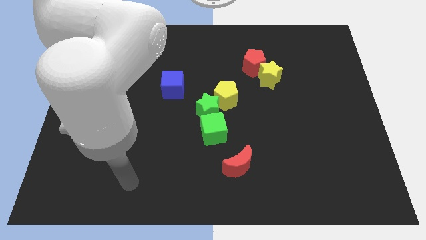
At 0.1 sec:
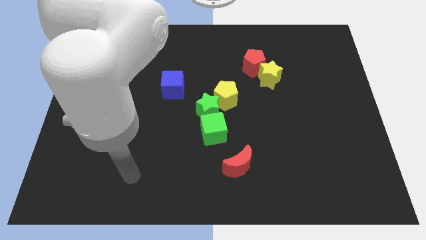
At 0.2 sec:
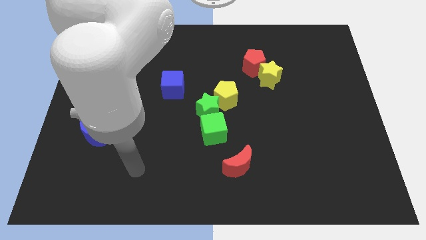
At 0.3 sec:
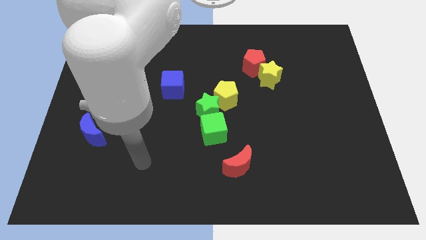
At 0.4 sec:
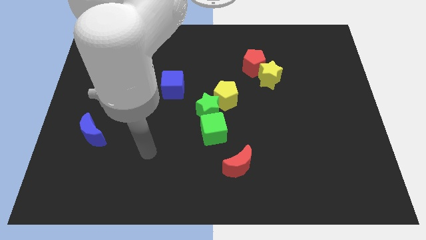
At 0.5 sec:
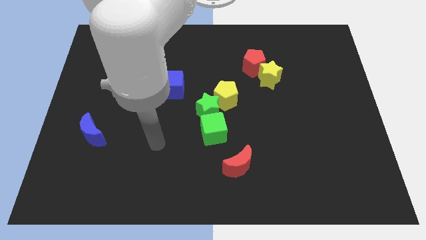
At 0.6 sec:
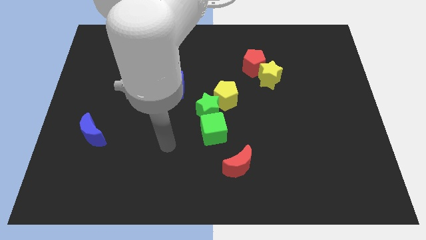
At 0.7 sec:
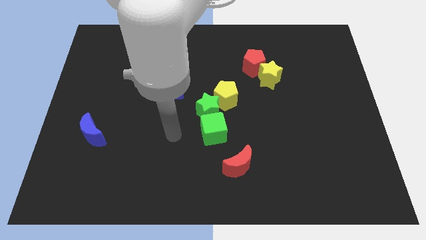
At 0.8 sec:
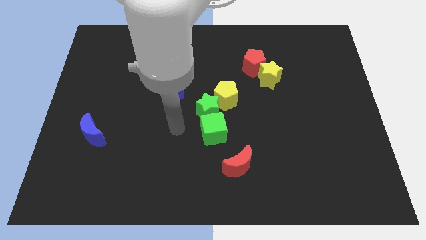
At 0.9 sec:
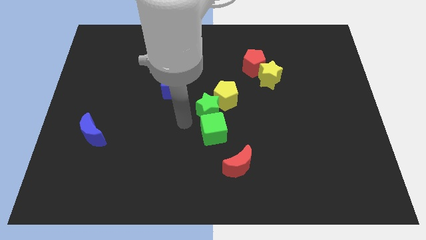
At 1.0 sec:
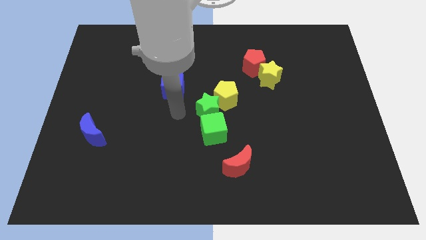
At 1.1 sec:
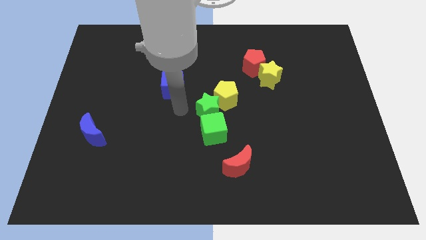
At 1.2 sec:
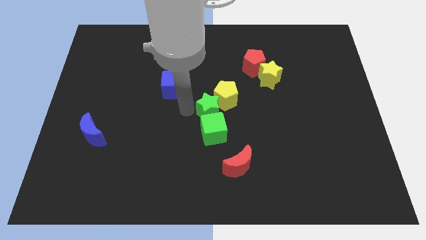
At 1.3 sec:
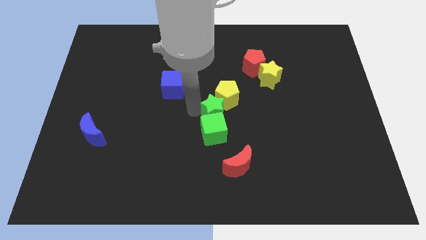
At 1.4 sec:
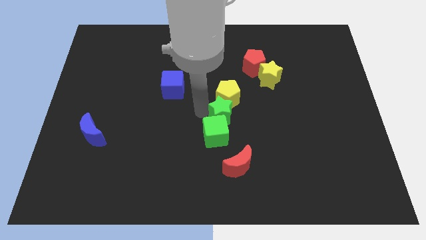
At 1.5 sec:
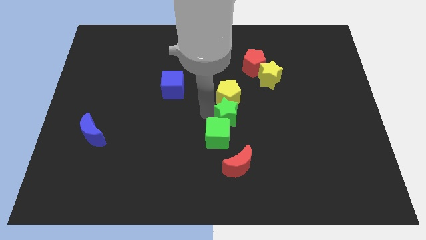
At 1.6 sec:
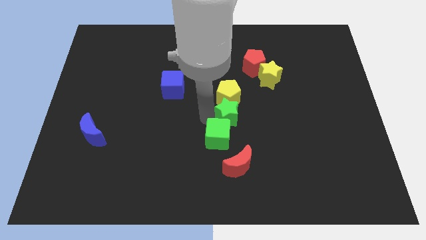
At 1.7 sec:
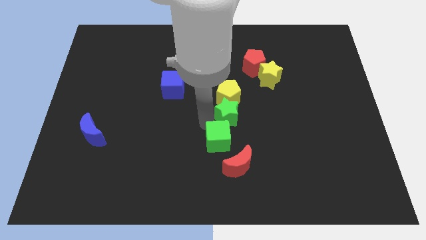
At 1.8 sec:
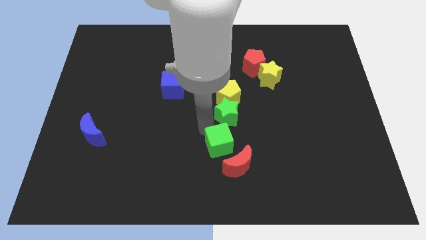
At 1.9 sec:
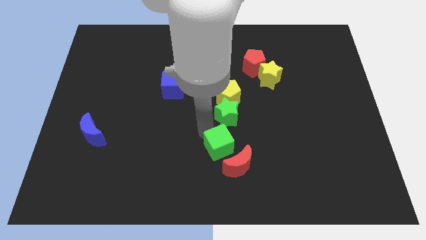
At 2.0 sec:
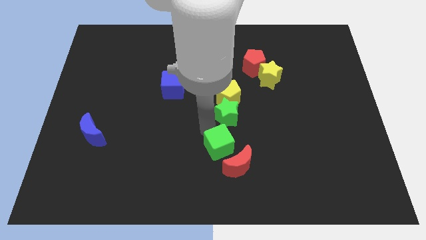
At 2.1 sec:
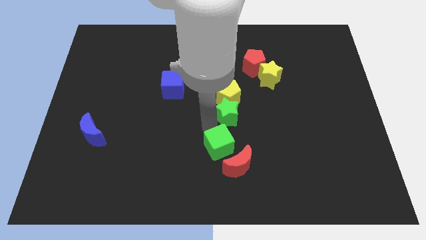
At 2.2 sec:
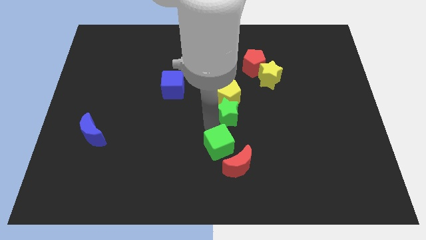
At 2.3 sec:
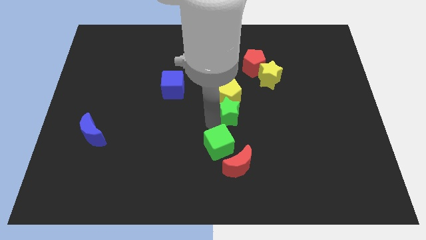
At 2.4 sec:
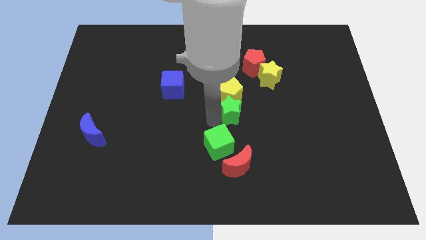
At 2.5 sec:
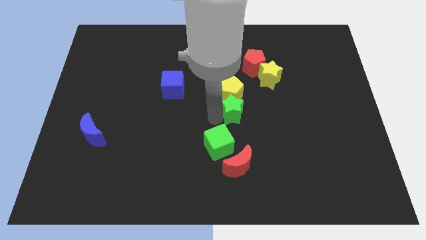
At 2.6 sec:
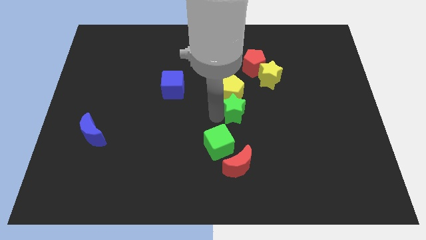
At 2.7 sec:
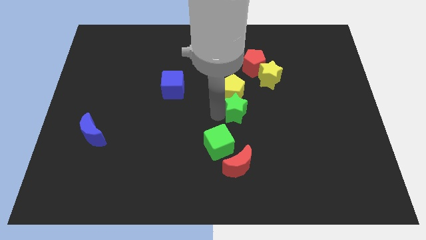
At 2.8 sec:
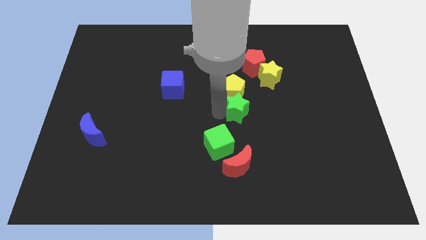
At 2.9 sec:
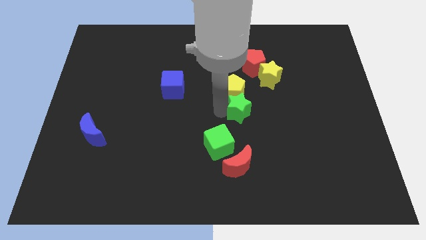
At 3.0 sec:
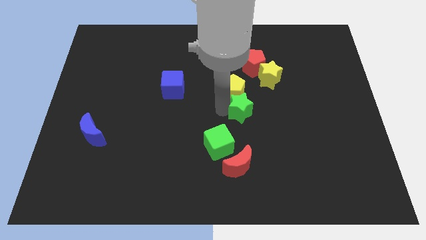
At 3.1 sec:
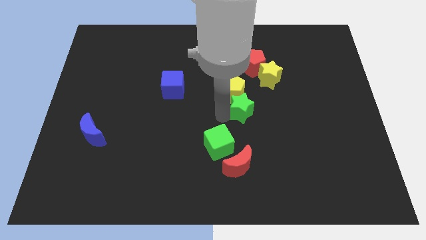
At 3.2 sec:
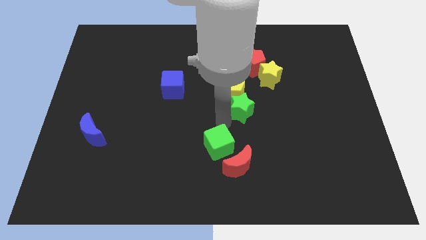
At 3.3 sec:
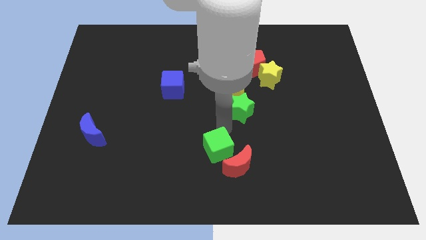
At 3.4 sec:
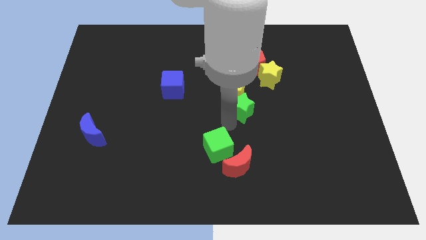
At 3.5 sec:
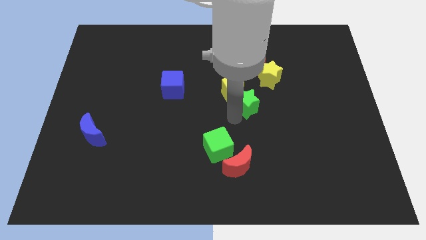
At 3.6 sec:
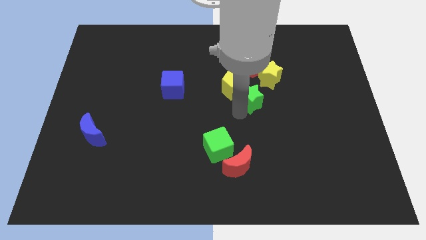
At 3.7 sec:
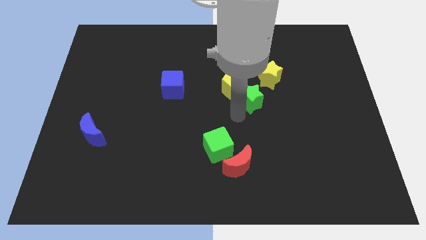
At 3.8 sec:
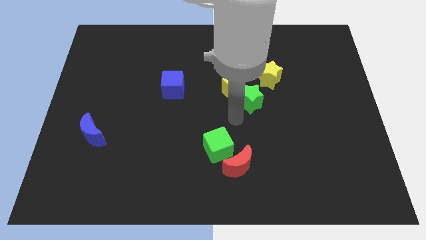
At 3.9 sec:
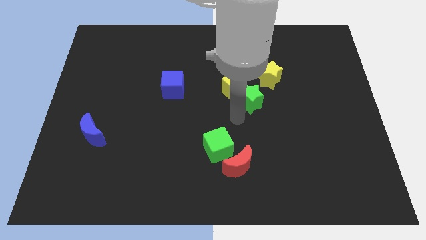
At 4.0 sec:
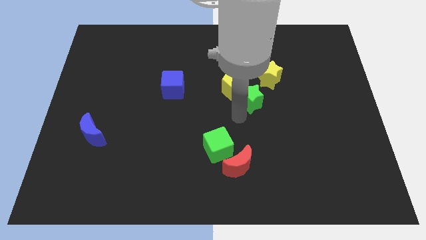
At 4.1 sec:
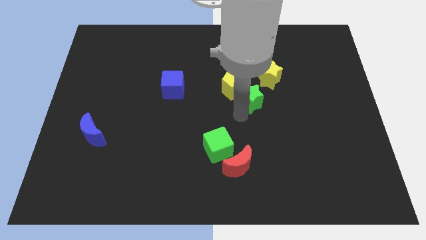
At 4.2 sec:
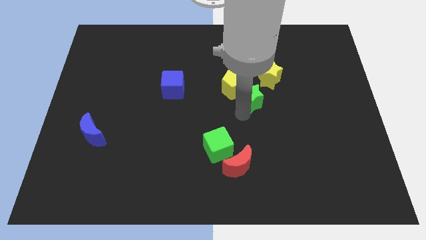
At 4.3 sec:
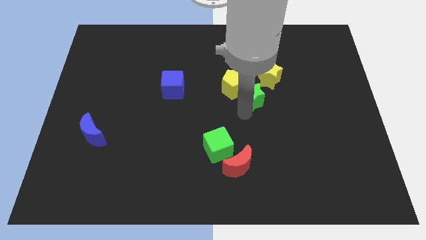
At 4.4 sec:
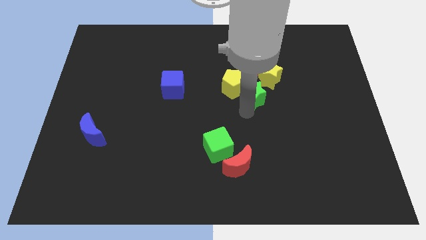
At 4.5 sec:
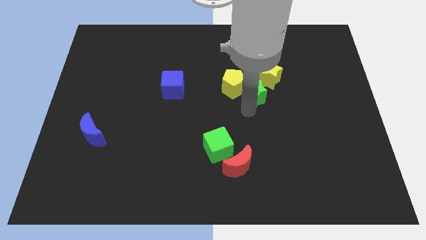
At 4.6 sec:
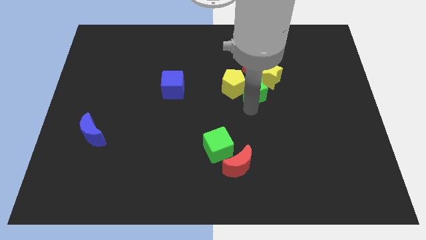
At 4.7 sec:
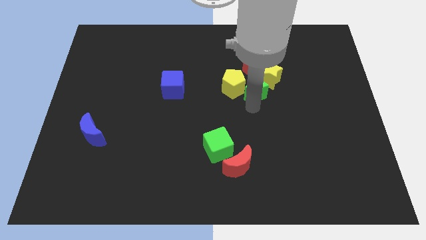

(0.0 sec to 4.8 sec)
slide the green star to the yellow star

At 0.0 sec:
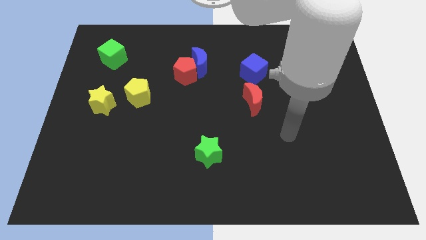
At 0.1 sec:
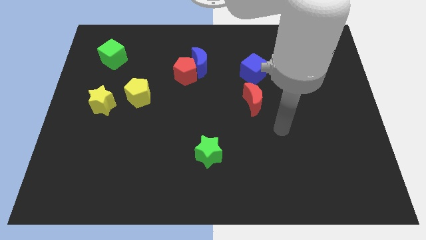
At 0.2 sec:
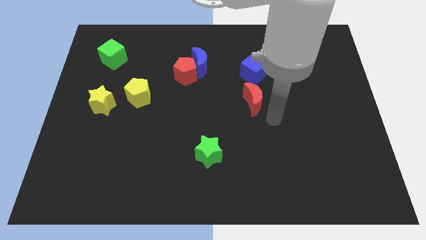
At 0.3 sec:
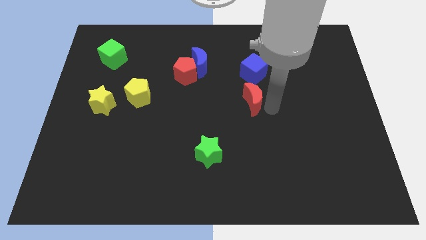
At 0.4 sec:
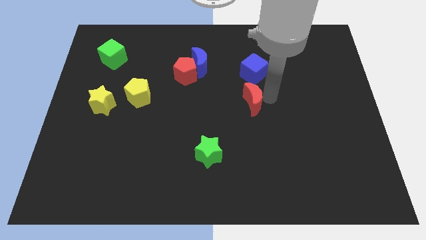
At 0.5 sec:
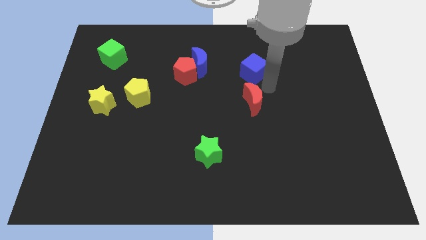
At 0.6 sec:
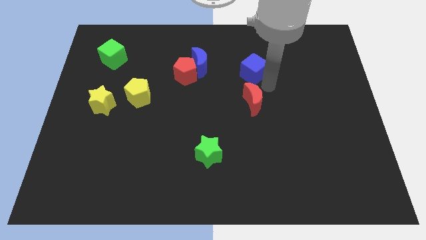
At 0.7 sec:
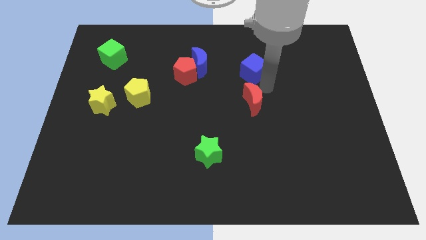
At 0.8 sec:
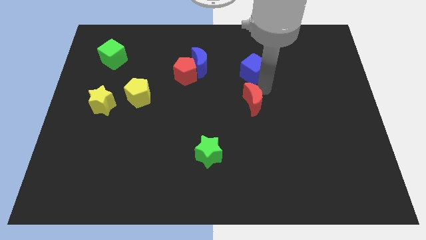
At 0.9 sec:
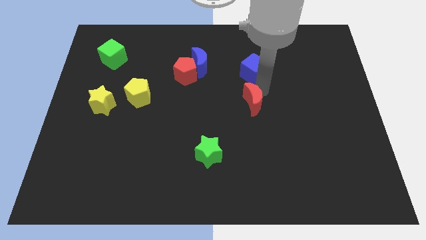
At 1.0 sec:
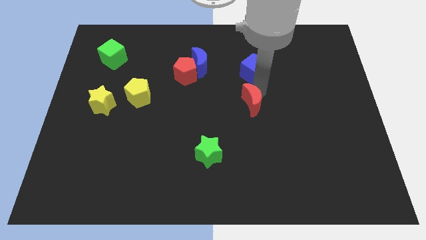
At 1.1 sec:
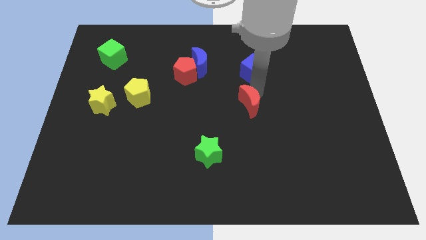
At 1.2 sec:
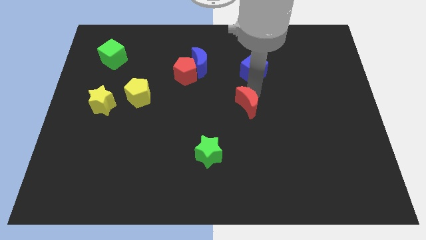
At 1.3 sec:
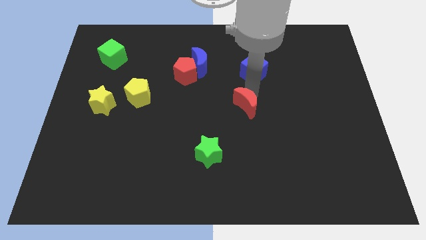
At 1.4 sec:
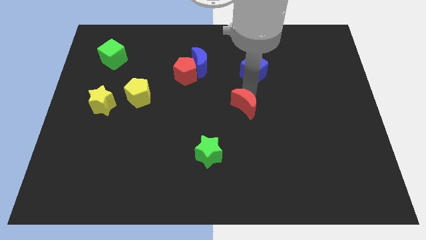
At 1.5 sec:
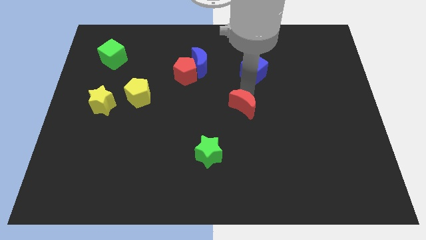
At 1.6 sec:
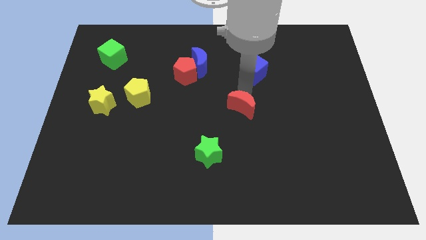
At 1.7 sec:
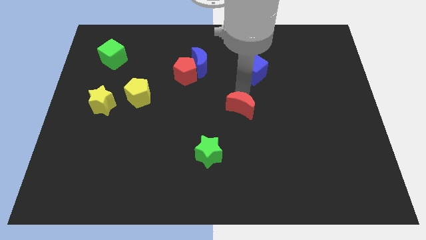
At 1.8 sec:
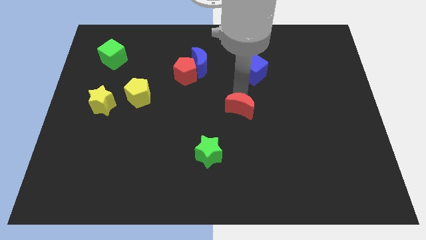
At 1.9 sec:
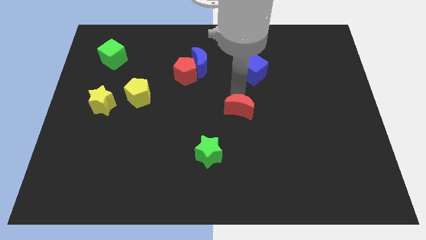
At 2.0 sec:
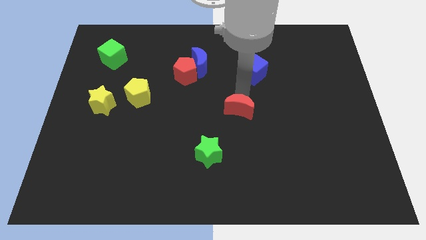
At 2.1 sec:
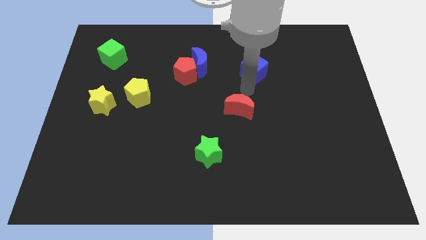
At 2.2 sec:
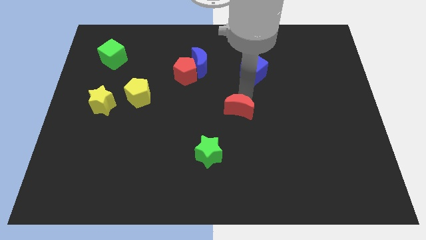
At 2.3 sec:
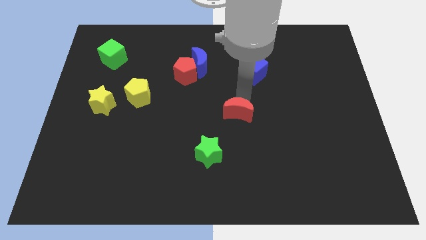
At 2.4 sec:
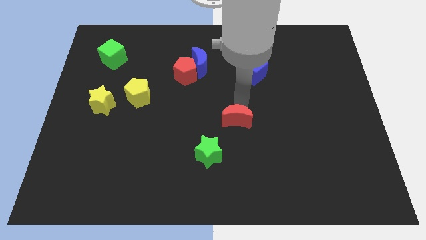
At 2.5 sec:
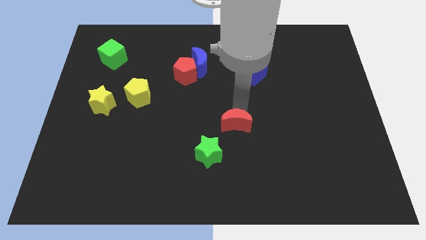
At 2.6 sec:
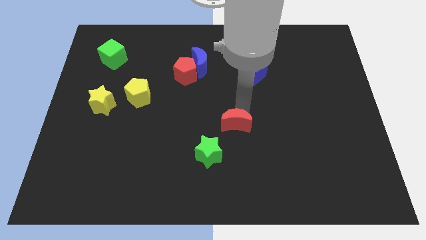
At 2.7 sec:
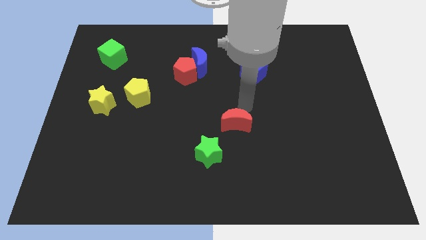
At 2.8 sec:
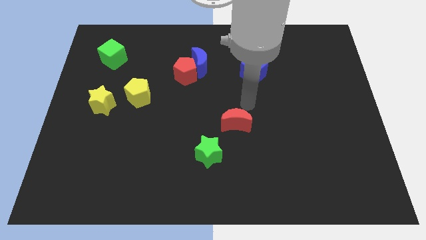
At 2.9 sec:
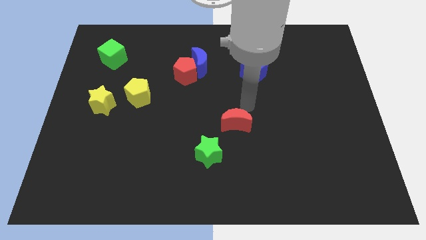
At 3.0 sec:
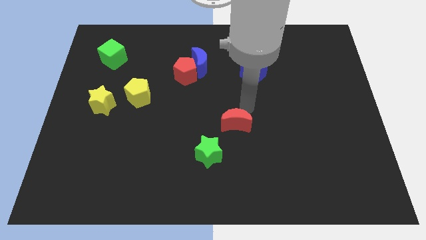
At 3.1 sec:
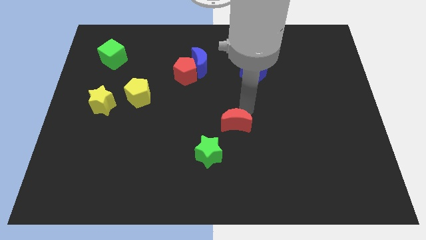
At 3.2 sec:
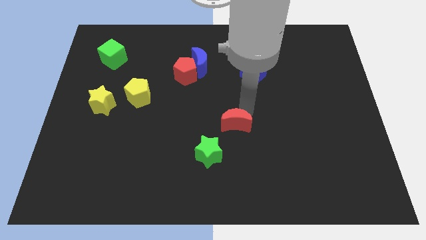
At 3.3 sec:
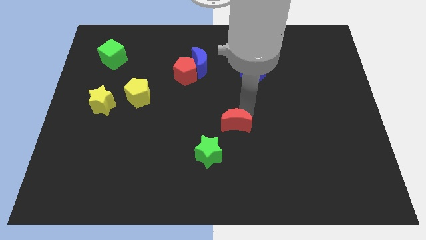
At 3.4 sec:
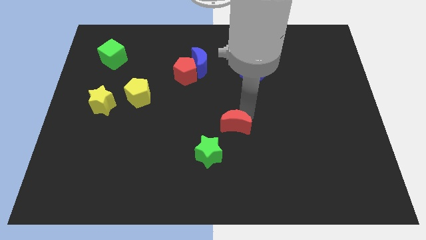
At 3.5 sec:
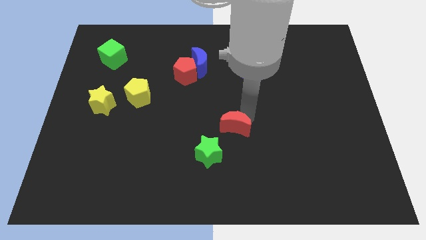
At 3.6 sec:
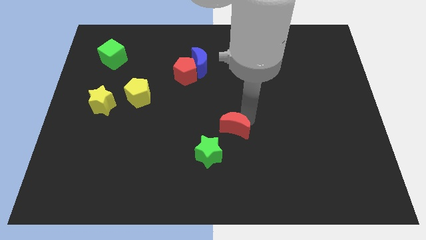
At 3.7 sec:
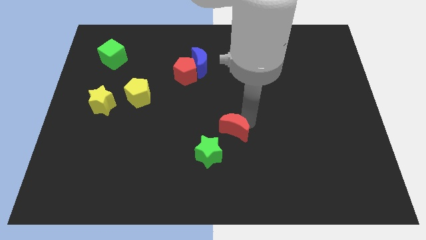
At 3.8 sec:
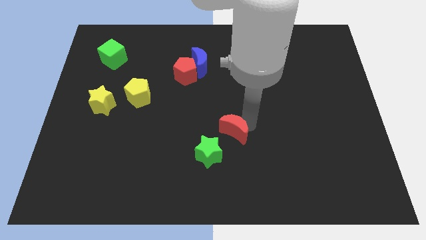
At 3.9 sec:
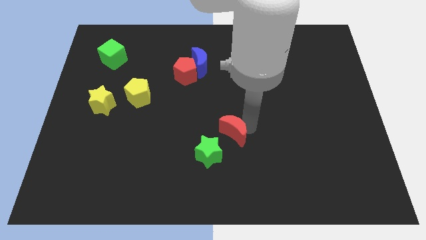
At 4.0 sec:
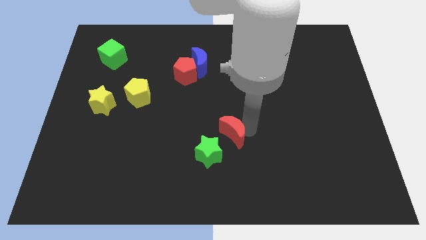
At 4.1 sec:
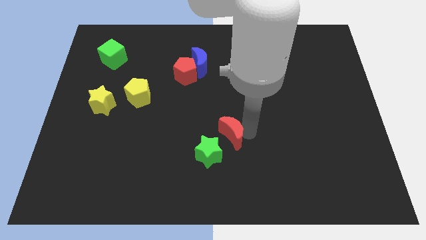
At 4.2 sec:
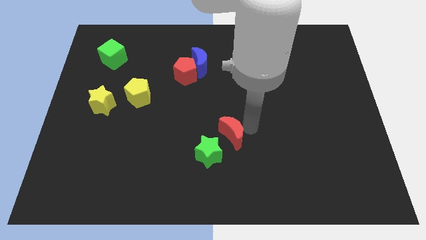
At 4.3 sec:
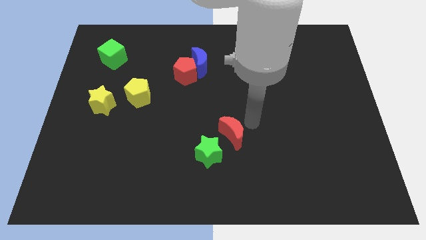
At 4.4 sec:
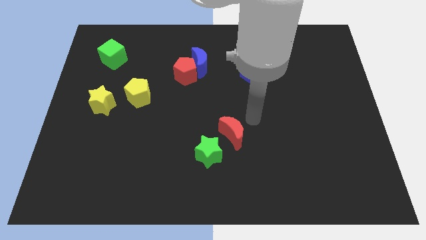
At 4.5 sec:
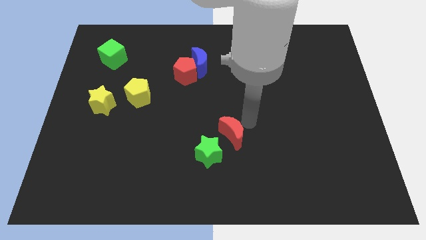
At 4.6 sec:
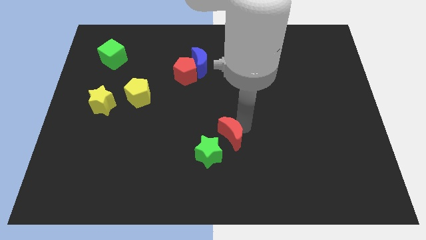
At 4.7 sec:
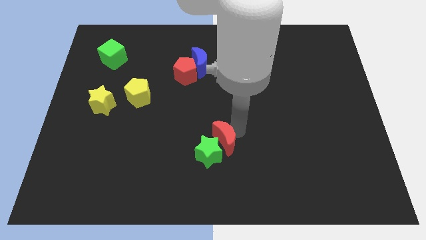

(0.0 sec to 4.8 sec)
push the red moon to the green star
